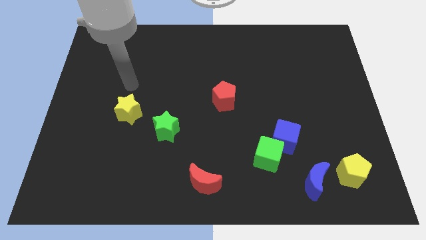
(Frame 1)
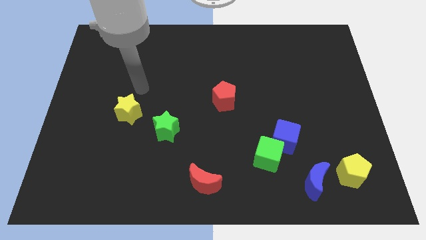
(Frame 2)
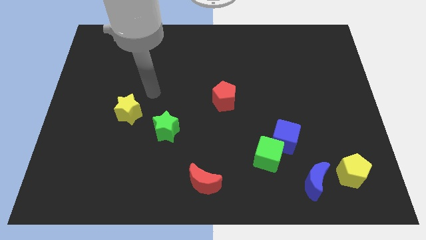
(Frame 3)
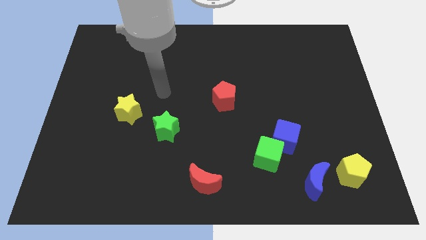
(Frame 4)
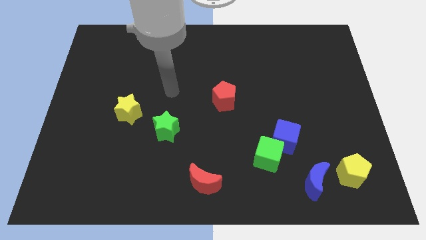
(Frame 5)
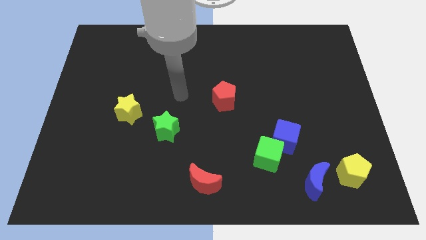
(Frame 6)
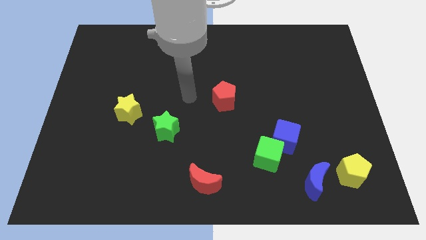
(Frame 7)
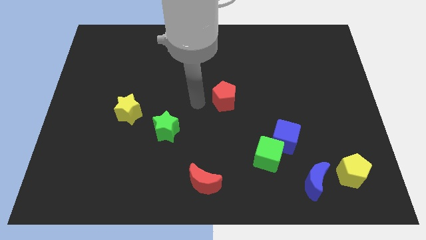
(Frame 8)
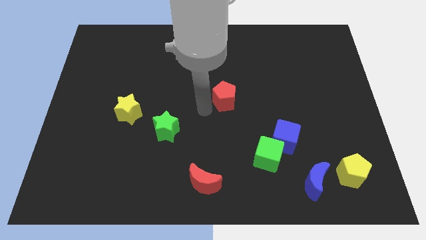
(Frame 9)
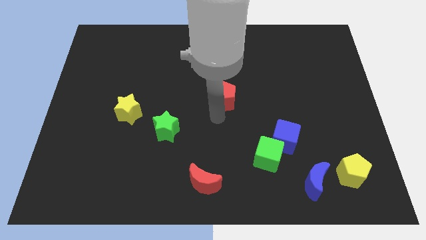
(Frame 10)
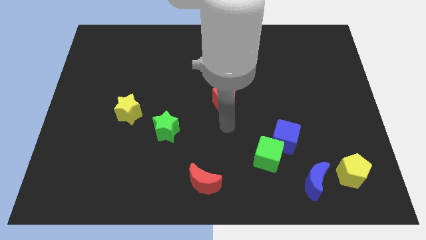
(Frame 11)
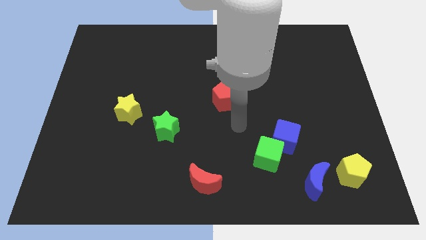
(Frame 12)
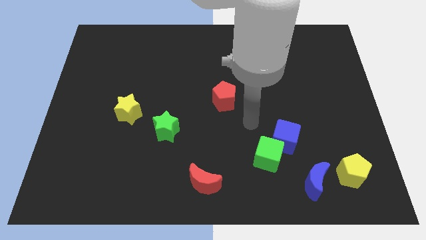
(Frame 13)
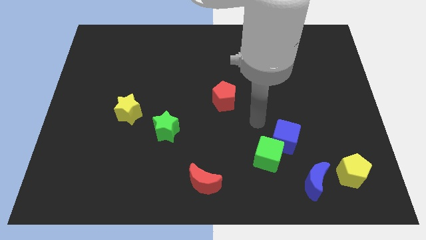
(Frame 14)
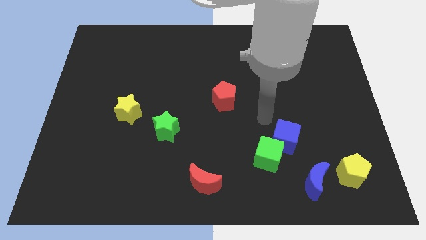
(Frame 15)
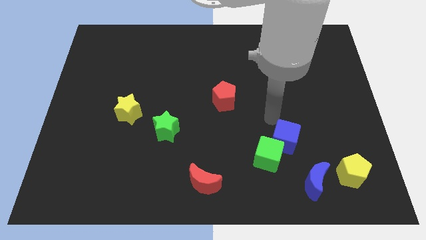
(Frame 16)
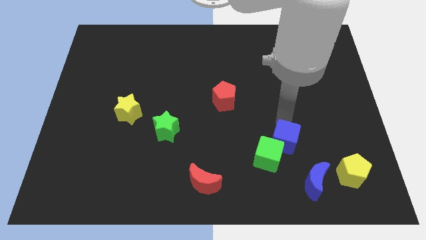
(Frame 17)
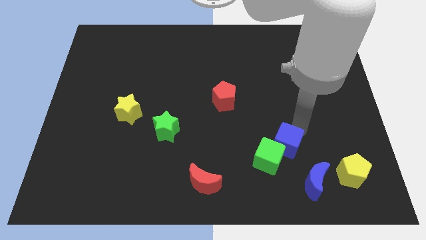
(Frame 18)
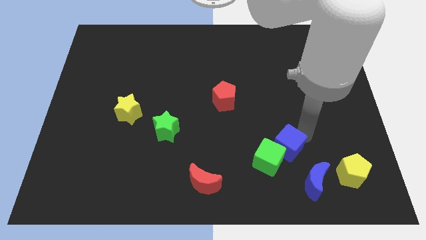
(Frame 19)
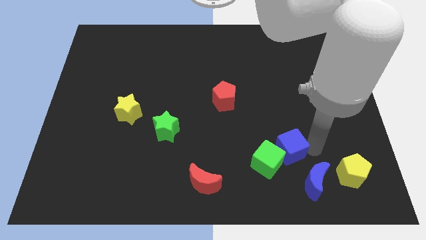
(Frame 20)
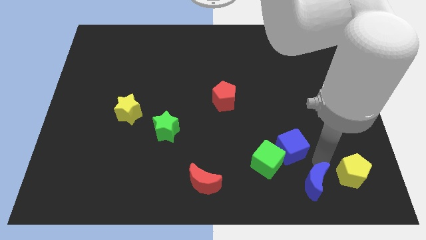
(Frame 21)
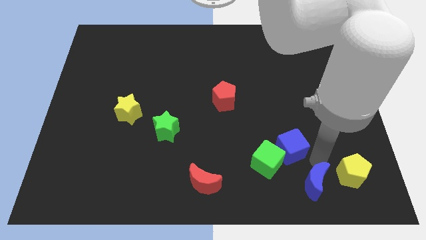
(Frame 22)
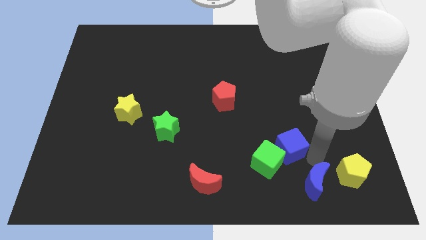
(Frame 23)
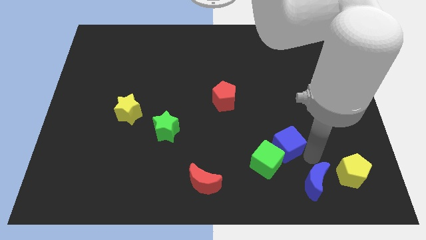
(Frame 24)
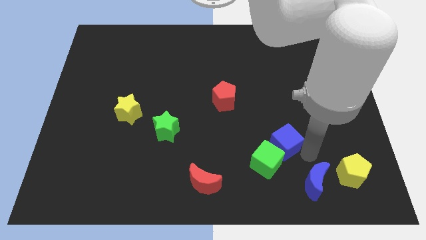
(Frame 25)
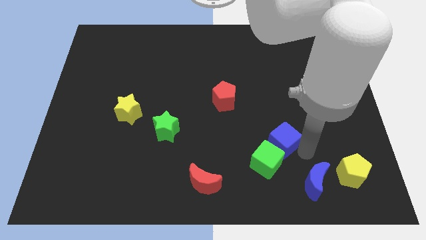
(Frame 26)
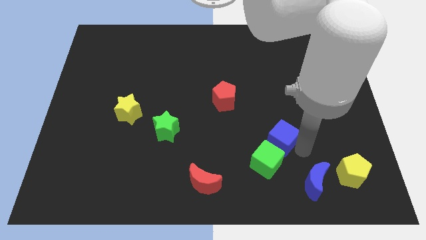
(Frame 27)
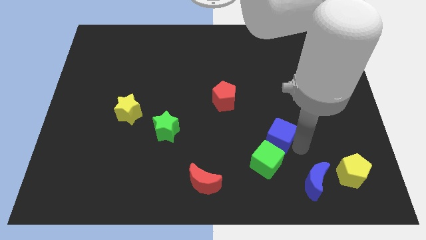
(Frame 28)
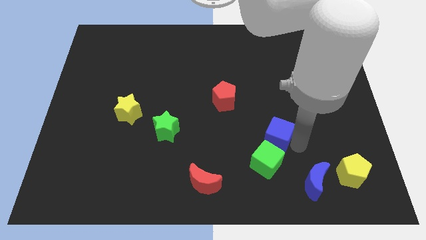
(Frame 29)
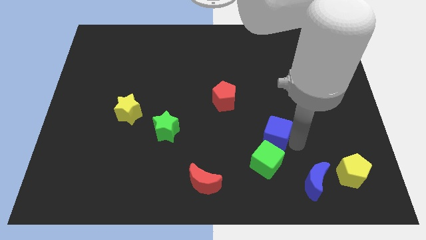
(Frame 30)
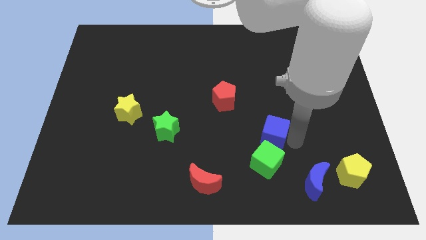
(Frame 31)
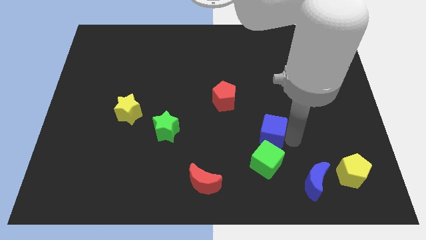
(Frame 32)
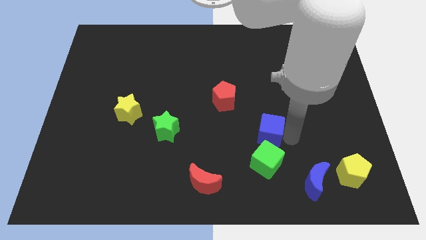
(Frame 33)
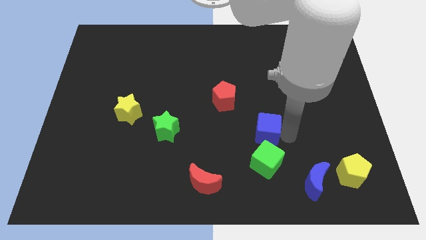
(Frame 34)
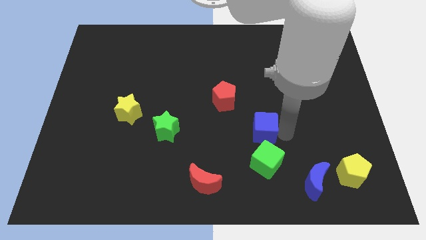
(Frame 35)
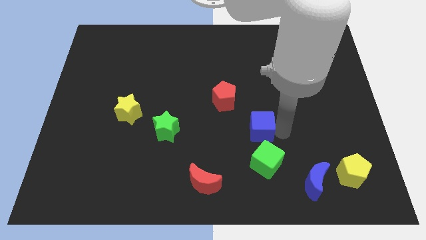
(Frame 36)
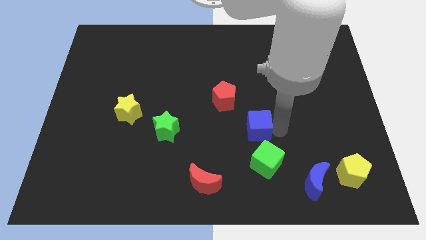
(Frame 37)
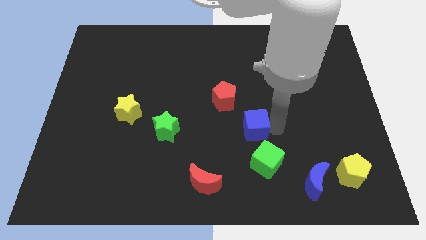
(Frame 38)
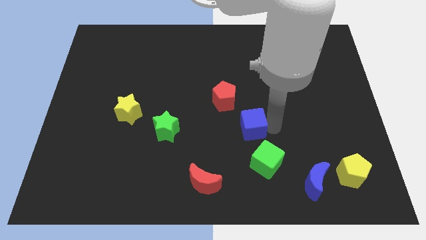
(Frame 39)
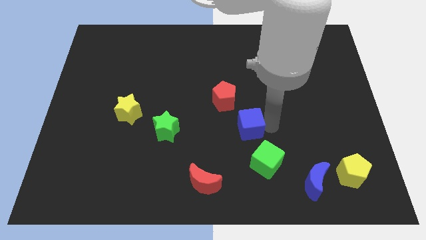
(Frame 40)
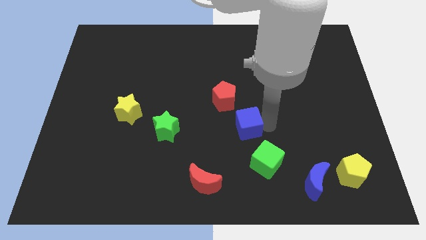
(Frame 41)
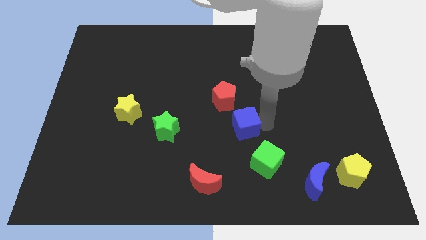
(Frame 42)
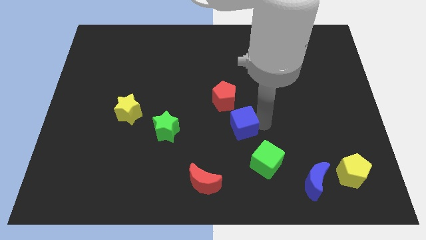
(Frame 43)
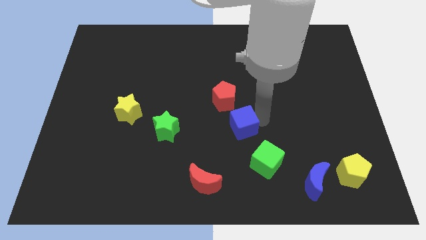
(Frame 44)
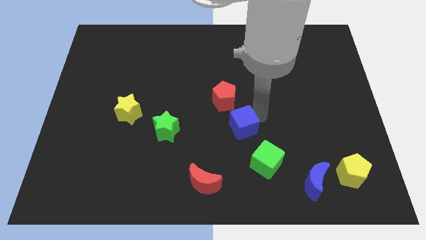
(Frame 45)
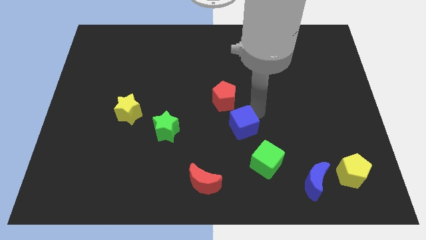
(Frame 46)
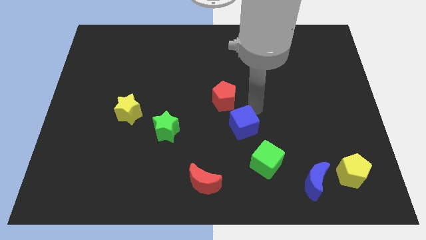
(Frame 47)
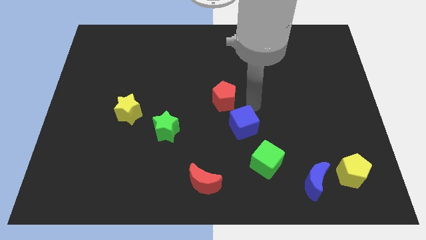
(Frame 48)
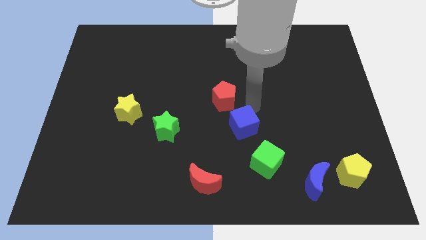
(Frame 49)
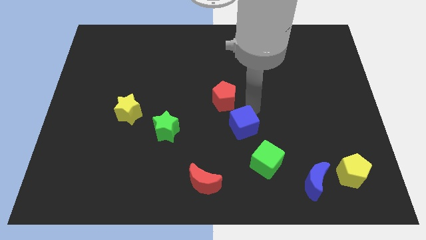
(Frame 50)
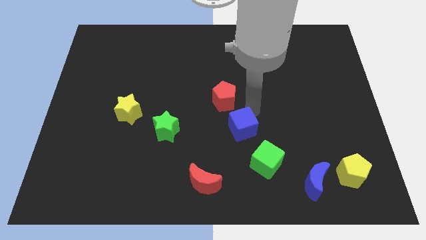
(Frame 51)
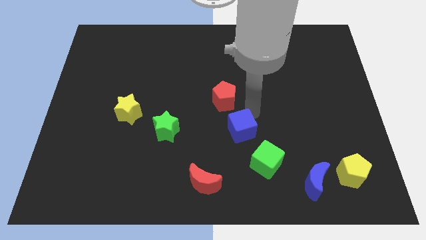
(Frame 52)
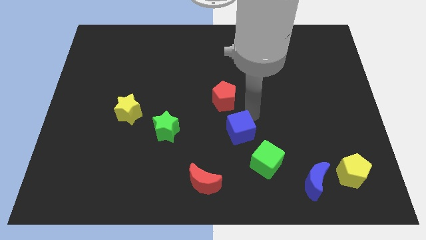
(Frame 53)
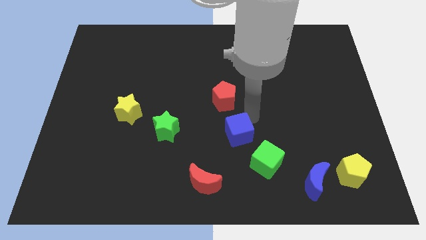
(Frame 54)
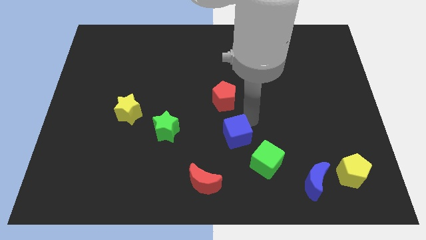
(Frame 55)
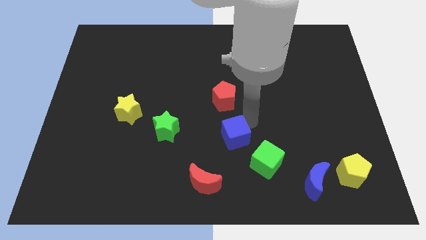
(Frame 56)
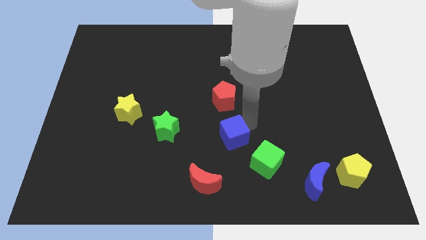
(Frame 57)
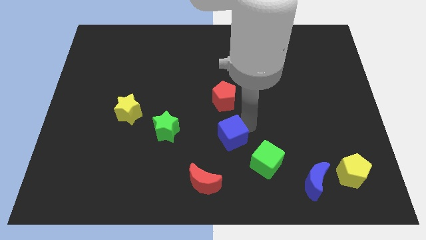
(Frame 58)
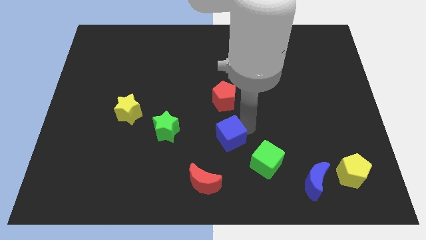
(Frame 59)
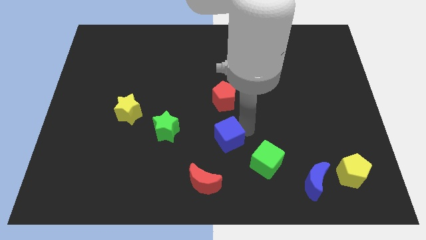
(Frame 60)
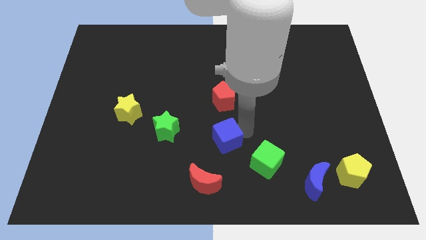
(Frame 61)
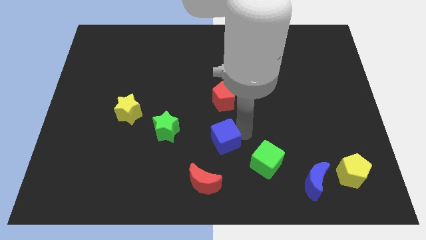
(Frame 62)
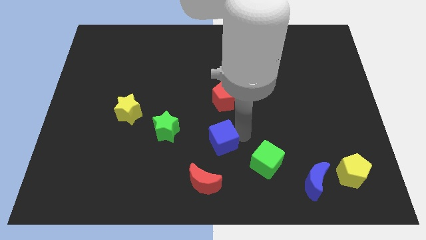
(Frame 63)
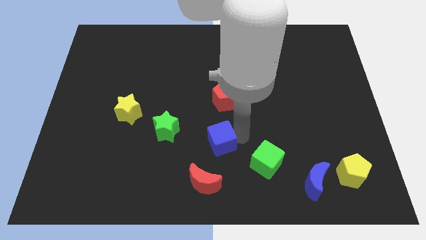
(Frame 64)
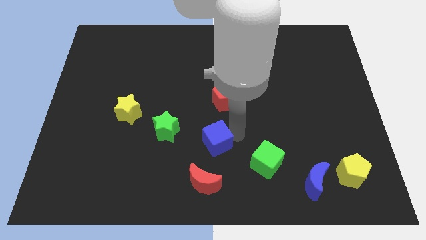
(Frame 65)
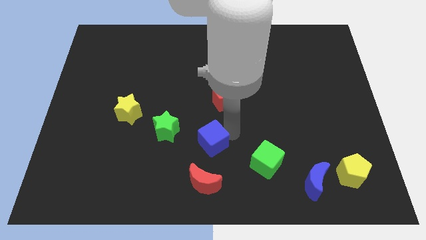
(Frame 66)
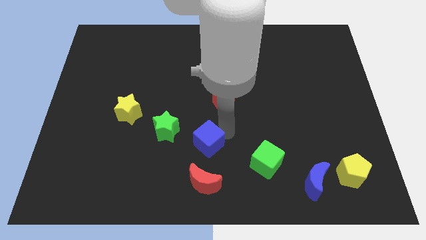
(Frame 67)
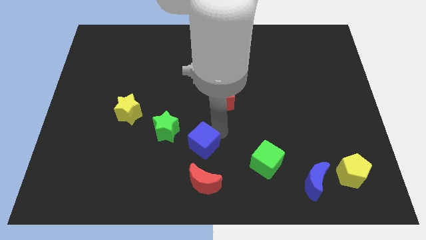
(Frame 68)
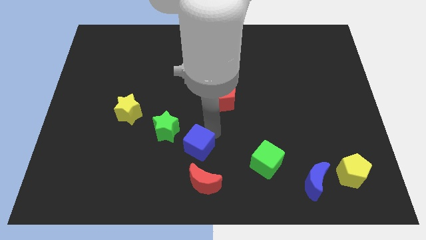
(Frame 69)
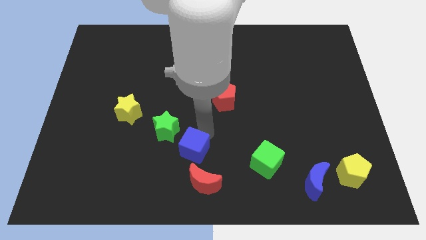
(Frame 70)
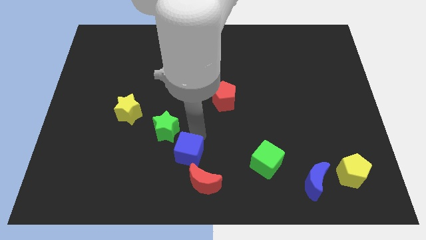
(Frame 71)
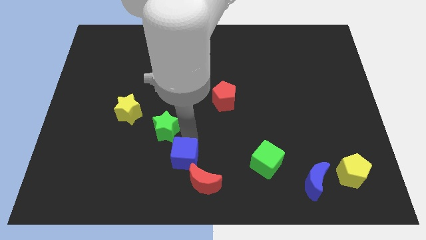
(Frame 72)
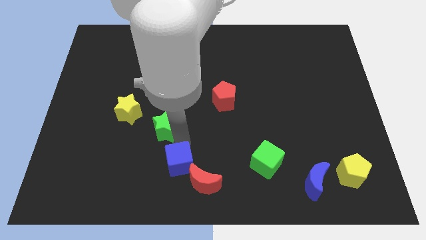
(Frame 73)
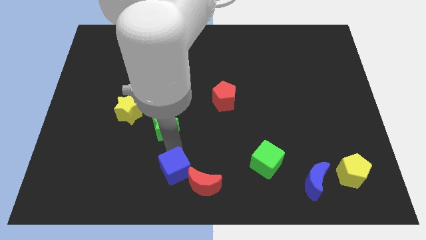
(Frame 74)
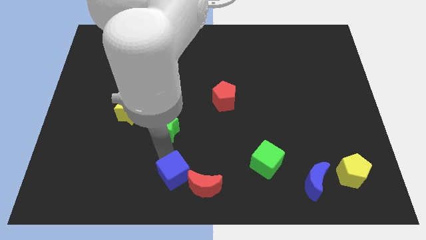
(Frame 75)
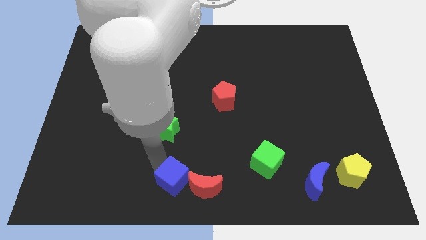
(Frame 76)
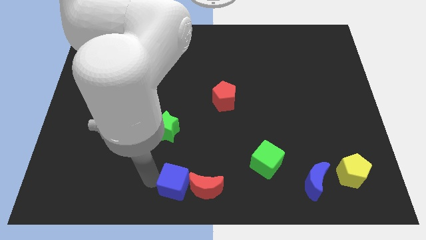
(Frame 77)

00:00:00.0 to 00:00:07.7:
move the blue cube to the red moon
